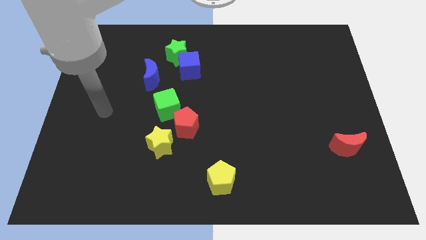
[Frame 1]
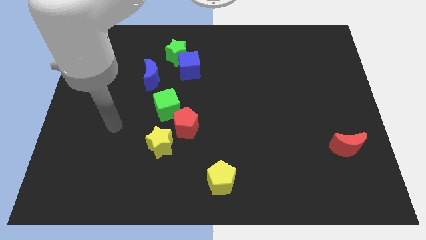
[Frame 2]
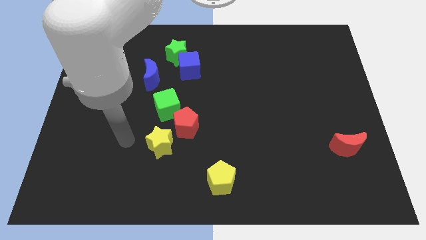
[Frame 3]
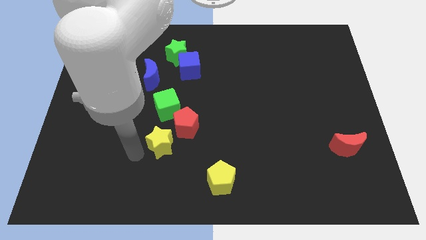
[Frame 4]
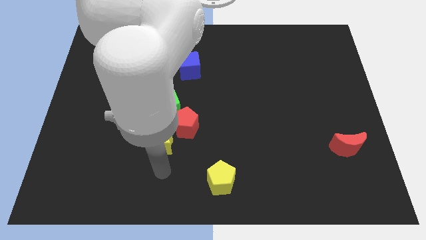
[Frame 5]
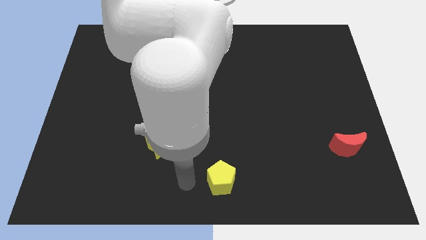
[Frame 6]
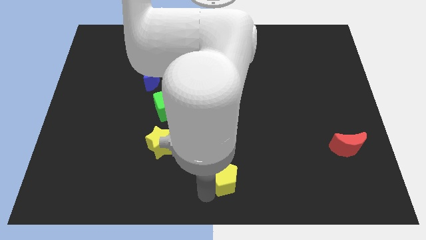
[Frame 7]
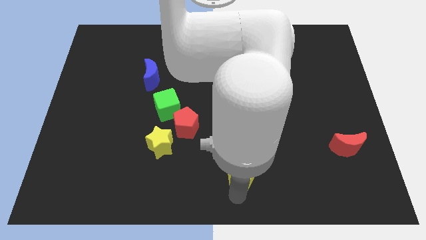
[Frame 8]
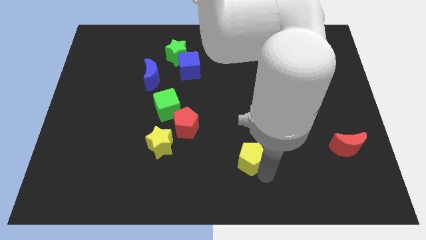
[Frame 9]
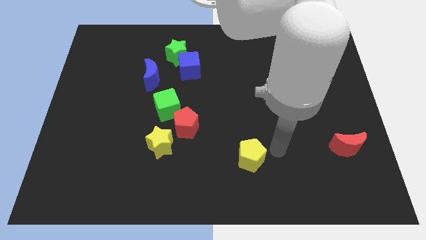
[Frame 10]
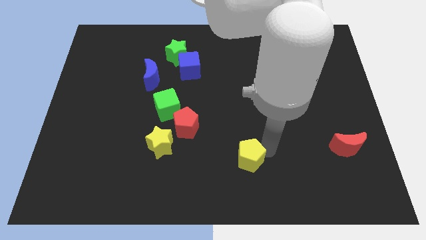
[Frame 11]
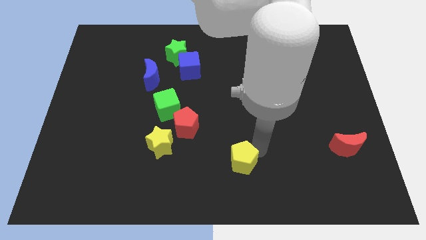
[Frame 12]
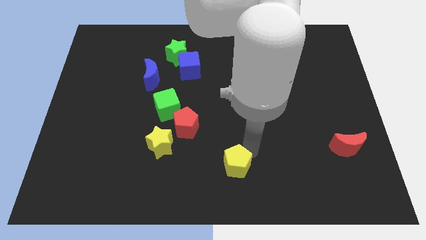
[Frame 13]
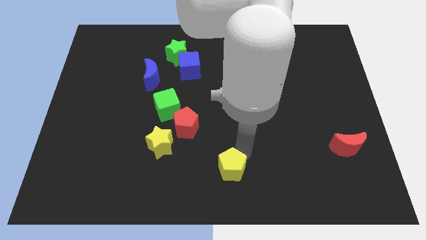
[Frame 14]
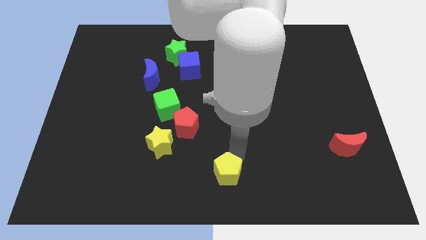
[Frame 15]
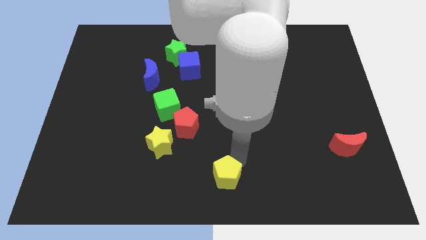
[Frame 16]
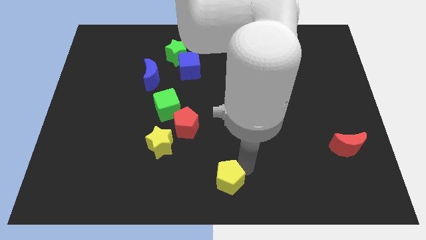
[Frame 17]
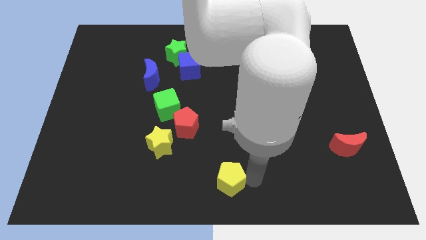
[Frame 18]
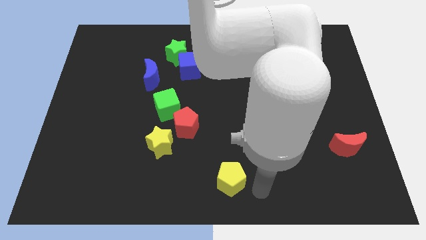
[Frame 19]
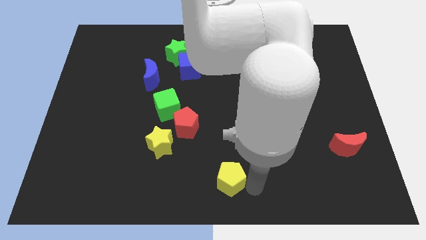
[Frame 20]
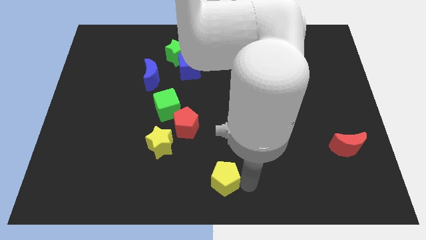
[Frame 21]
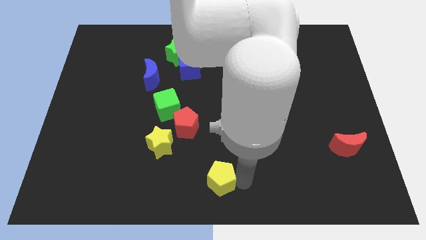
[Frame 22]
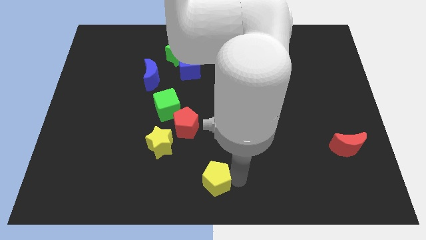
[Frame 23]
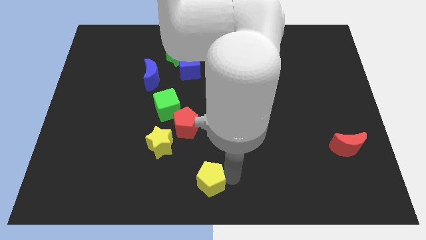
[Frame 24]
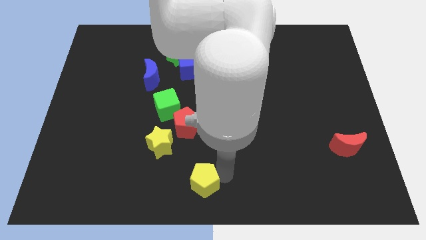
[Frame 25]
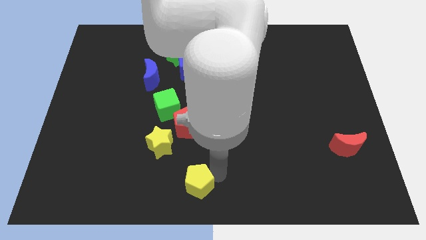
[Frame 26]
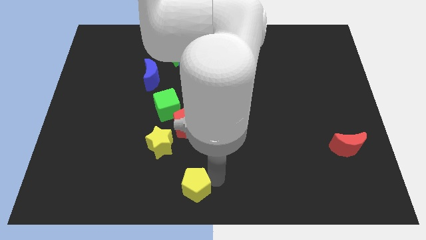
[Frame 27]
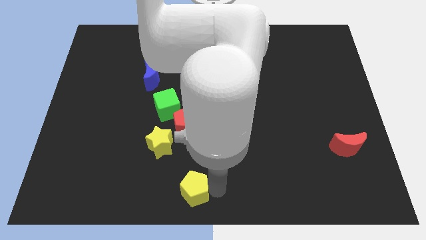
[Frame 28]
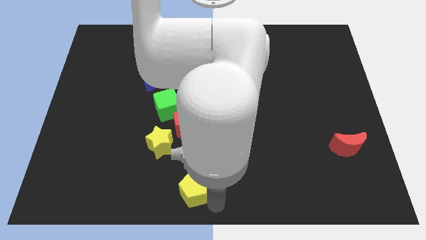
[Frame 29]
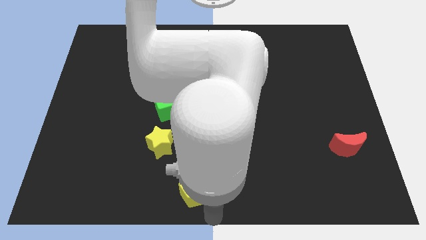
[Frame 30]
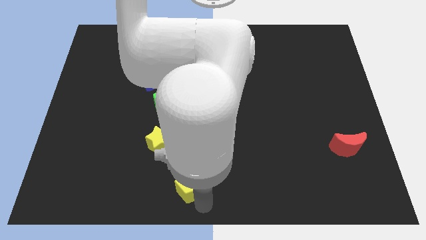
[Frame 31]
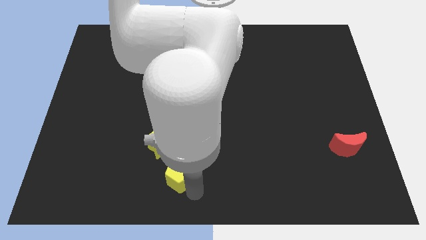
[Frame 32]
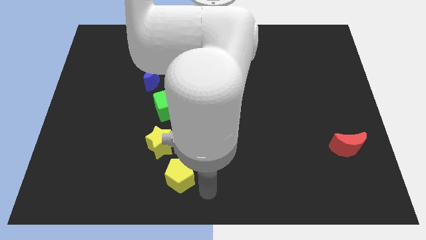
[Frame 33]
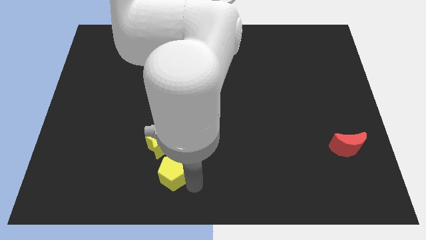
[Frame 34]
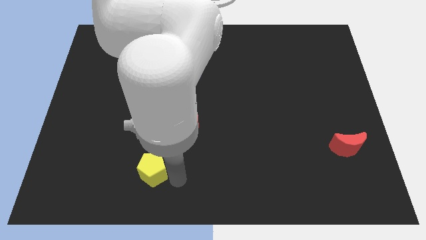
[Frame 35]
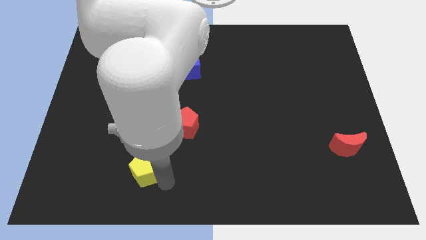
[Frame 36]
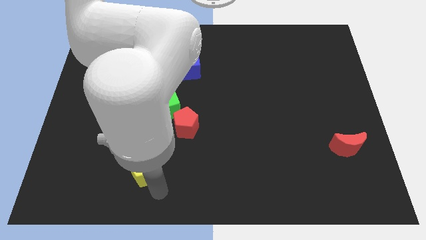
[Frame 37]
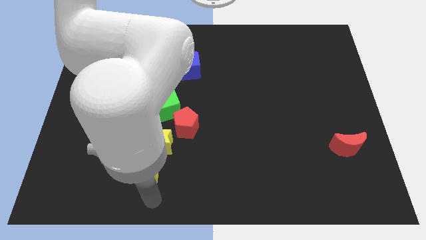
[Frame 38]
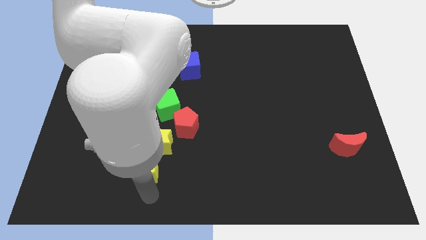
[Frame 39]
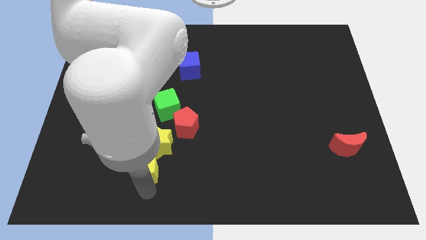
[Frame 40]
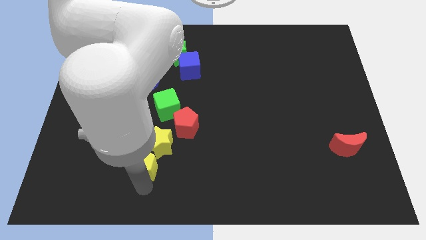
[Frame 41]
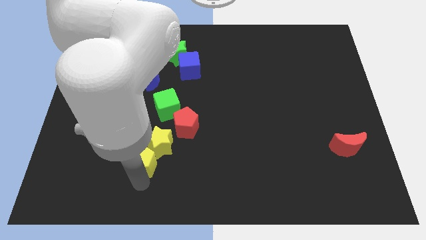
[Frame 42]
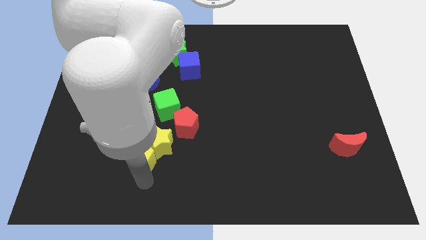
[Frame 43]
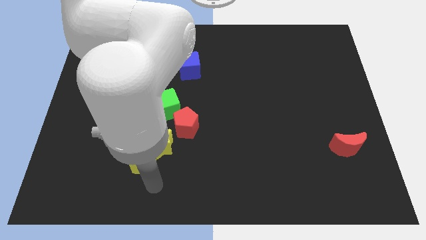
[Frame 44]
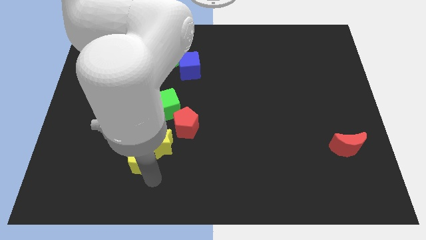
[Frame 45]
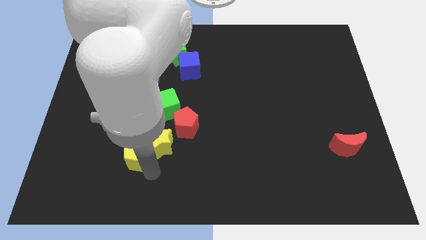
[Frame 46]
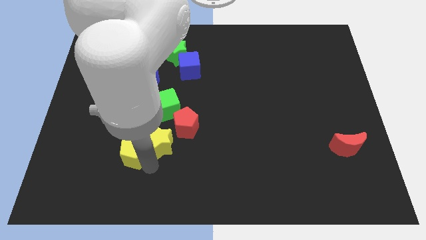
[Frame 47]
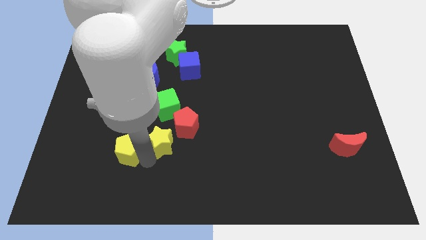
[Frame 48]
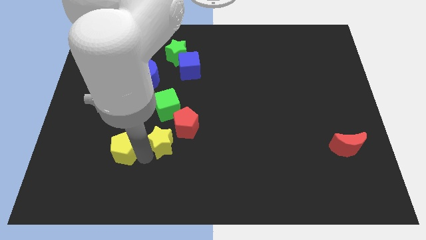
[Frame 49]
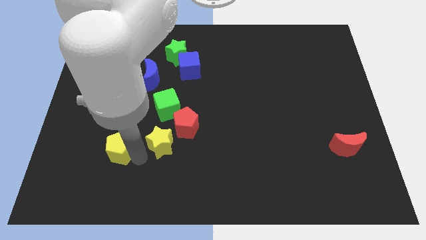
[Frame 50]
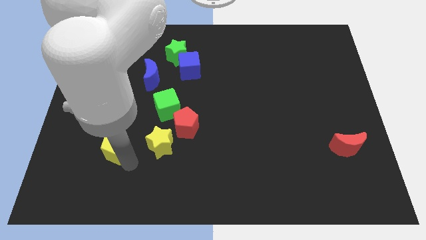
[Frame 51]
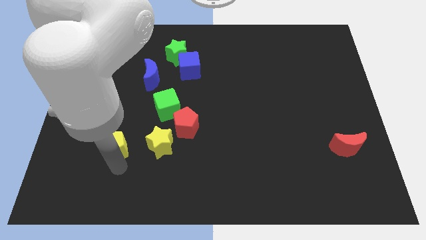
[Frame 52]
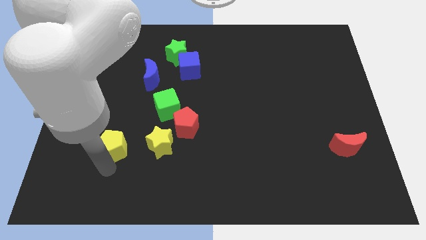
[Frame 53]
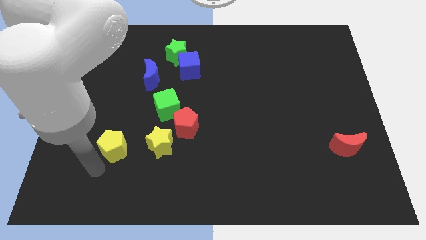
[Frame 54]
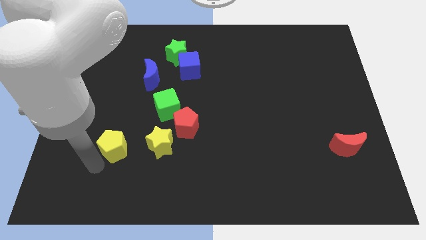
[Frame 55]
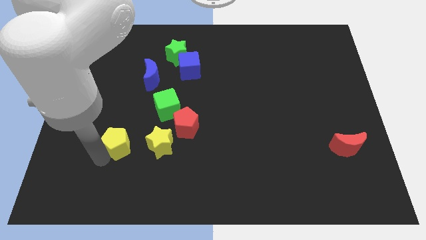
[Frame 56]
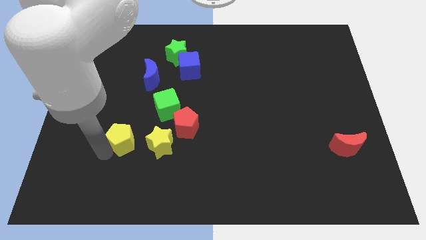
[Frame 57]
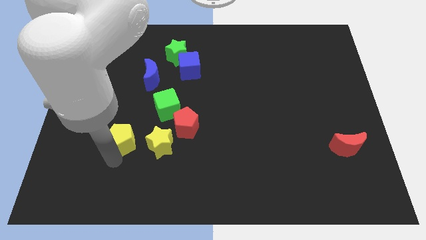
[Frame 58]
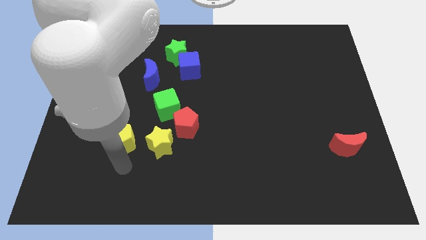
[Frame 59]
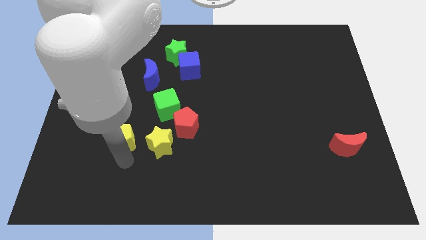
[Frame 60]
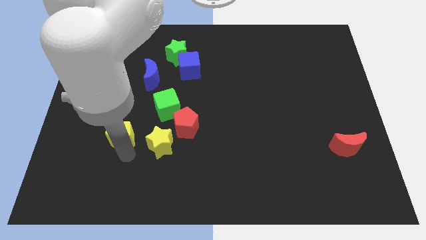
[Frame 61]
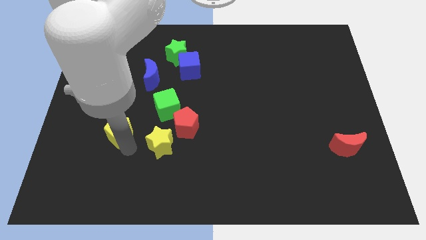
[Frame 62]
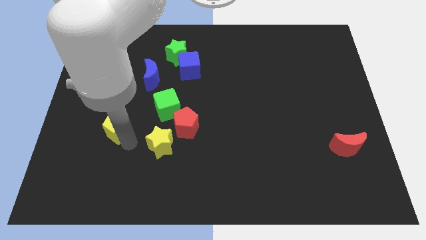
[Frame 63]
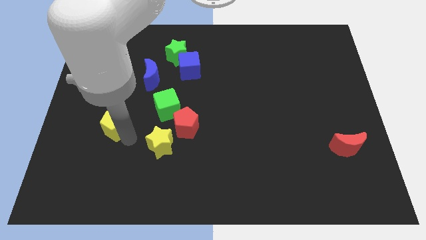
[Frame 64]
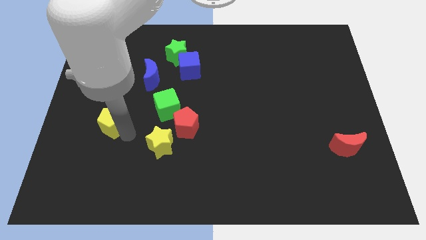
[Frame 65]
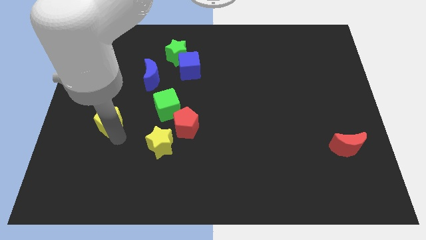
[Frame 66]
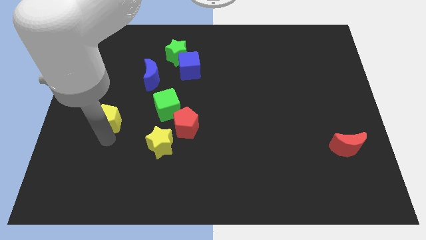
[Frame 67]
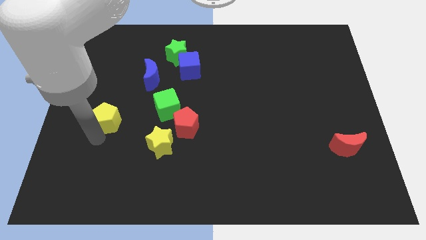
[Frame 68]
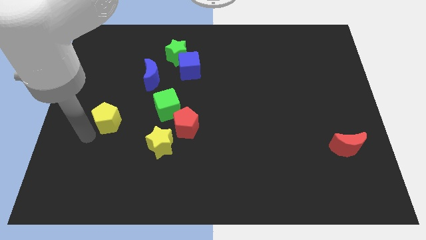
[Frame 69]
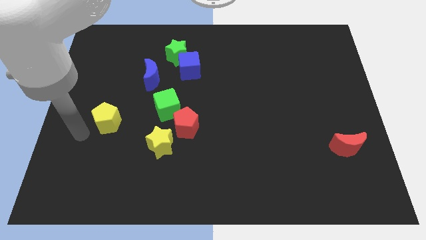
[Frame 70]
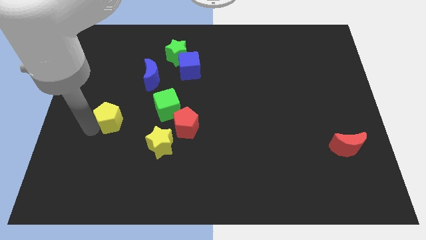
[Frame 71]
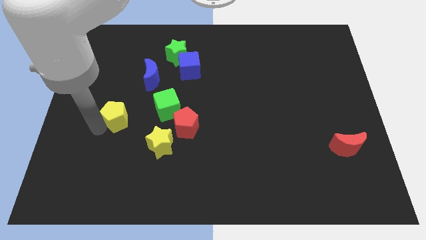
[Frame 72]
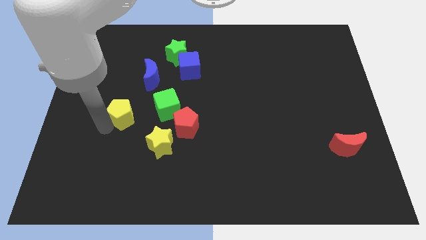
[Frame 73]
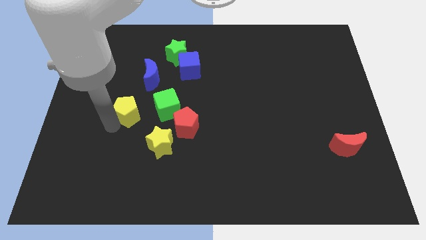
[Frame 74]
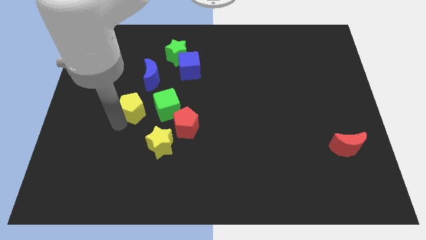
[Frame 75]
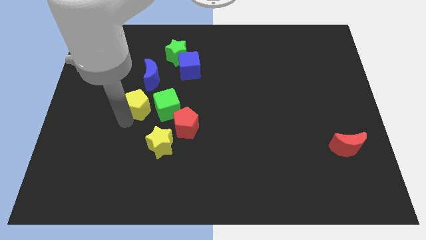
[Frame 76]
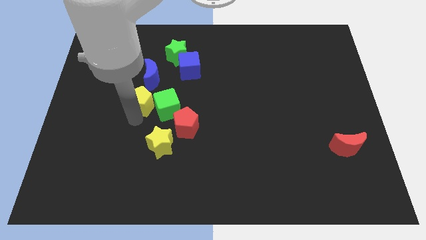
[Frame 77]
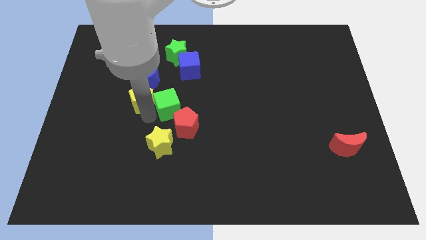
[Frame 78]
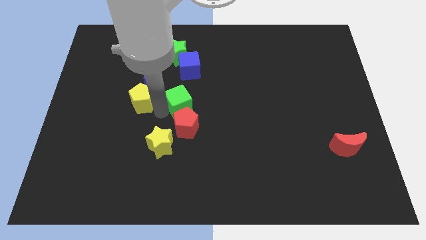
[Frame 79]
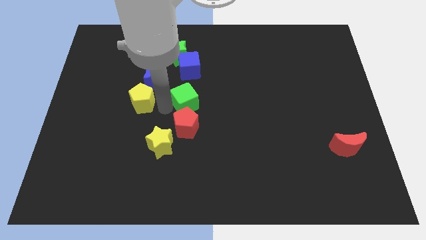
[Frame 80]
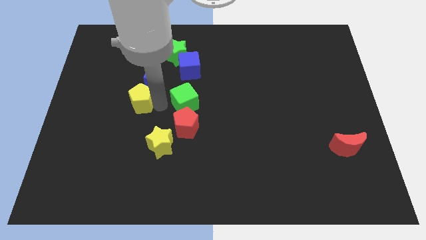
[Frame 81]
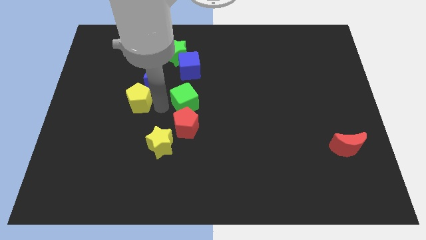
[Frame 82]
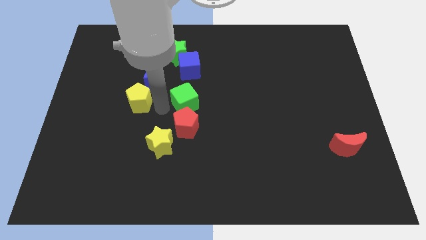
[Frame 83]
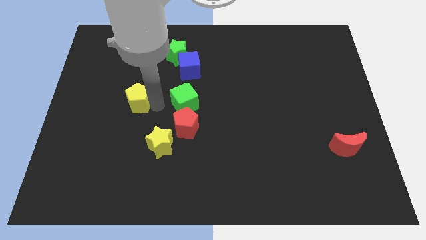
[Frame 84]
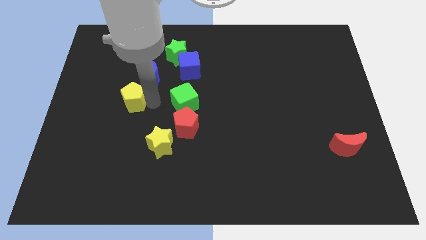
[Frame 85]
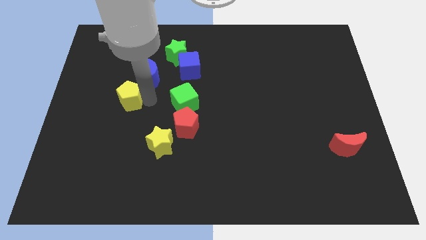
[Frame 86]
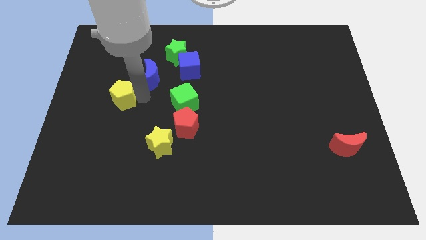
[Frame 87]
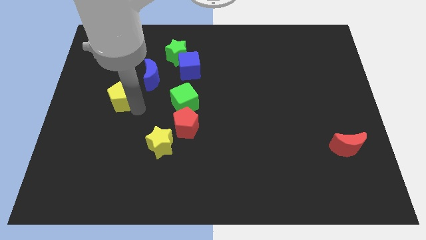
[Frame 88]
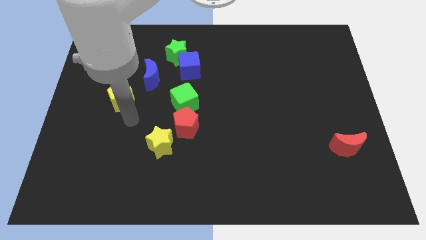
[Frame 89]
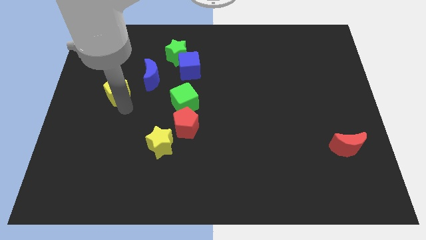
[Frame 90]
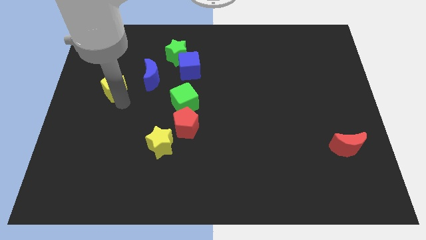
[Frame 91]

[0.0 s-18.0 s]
move the yellow pentagon just left of the blue moon
